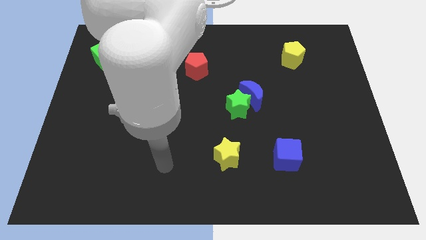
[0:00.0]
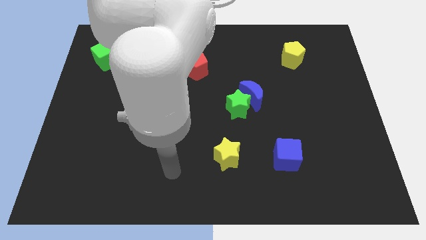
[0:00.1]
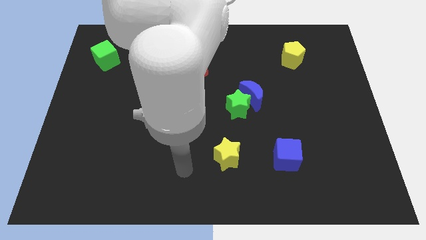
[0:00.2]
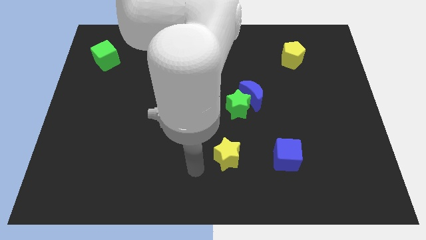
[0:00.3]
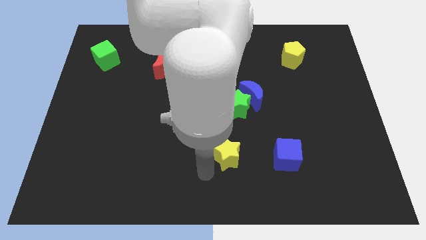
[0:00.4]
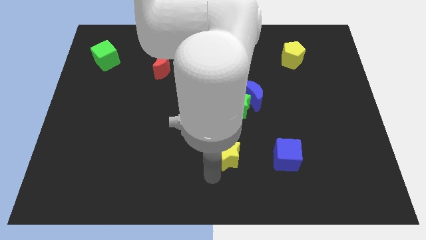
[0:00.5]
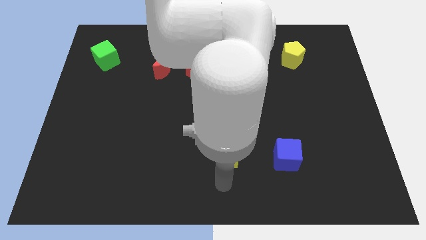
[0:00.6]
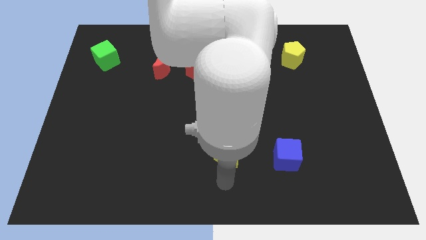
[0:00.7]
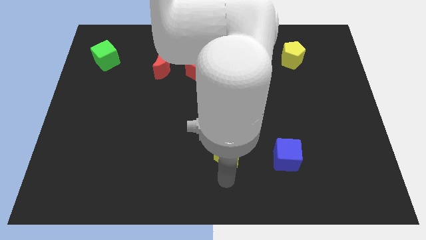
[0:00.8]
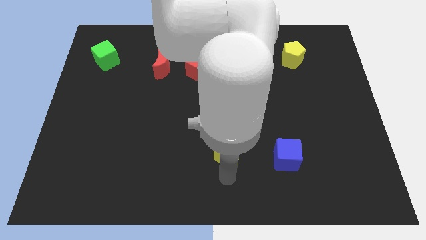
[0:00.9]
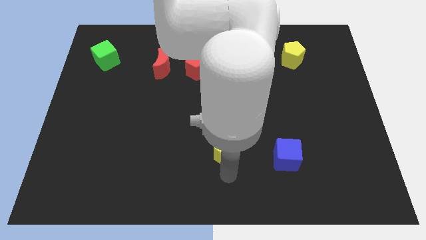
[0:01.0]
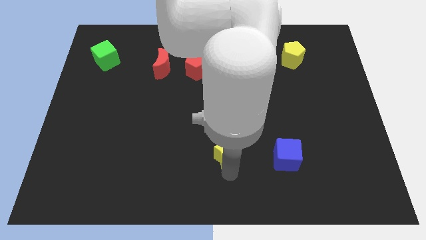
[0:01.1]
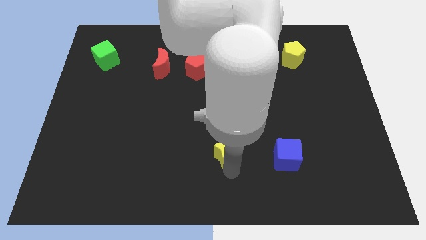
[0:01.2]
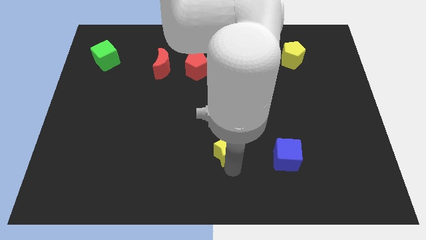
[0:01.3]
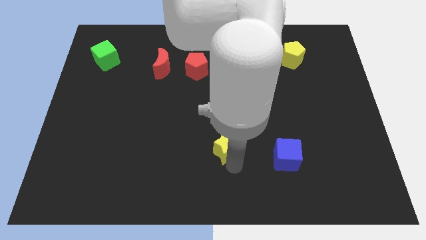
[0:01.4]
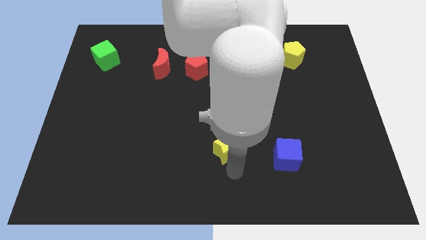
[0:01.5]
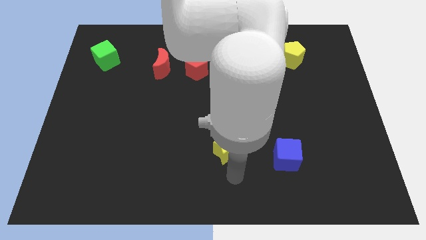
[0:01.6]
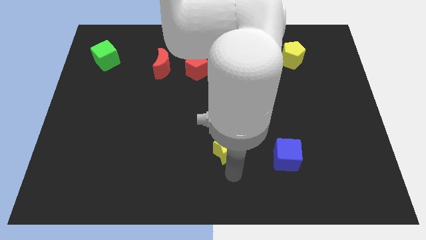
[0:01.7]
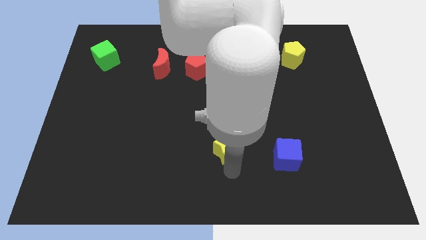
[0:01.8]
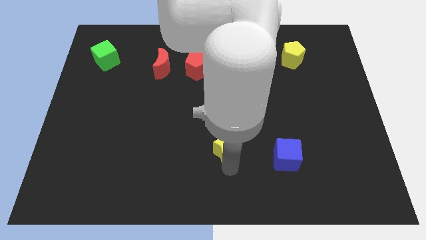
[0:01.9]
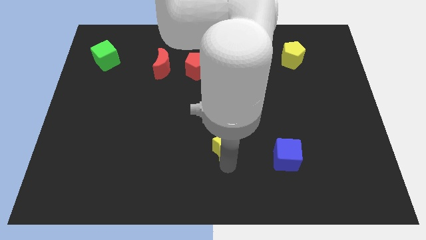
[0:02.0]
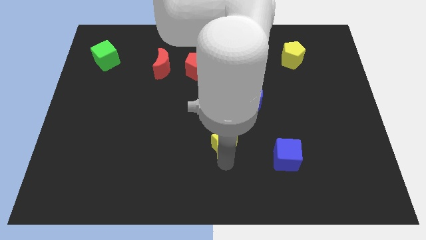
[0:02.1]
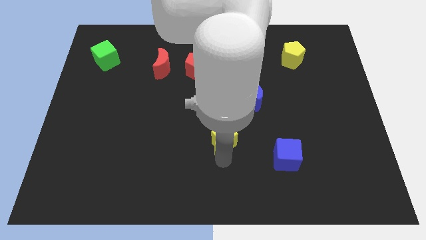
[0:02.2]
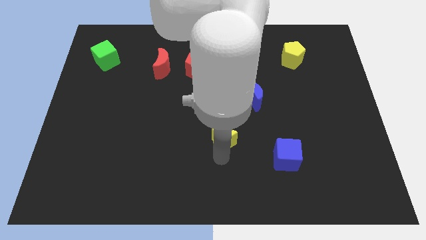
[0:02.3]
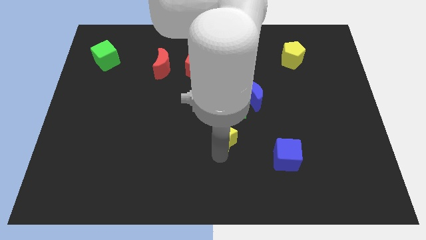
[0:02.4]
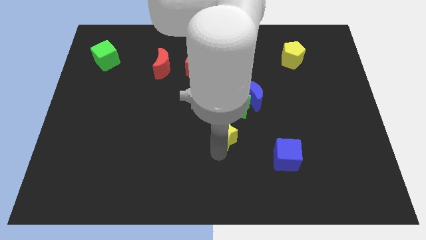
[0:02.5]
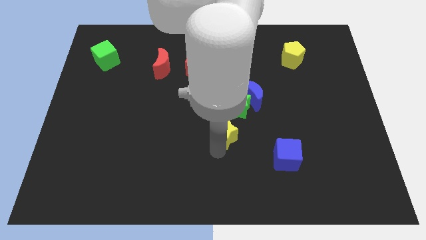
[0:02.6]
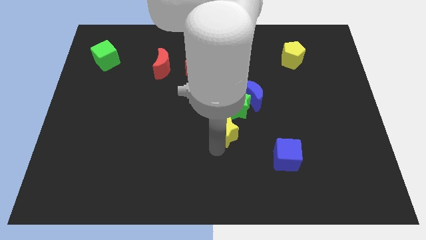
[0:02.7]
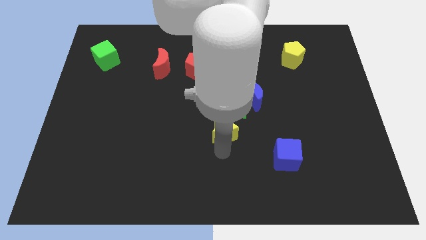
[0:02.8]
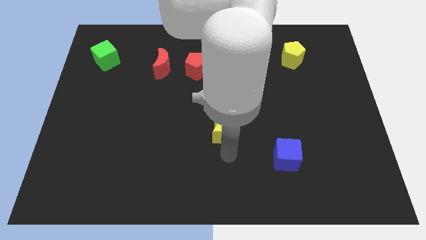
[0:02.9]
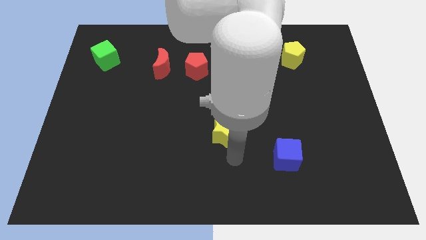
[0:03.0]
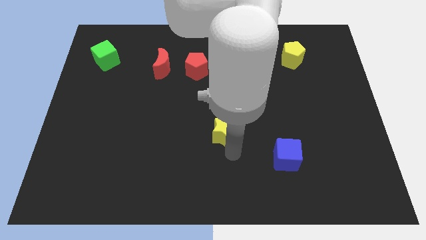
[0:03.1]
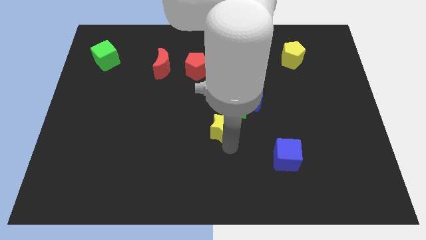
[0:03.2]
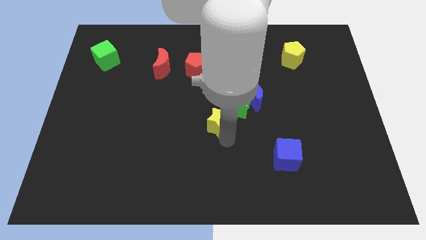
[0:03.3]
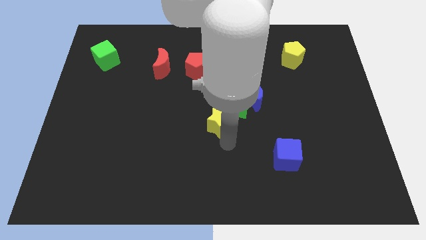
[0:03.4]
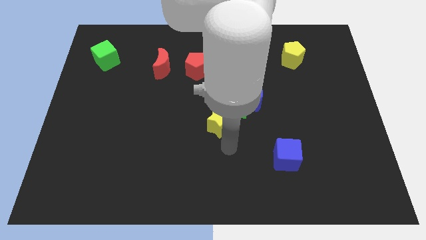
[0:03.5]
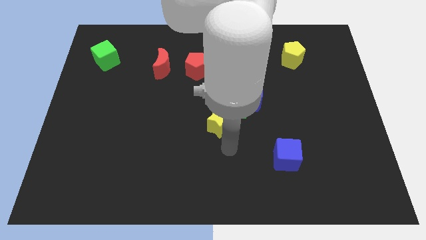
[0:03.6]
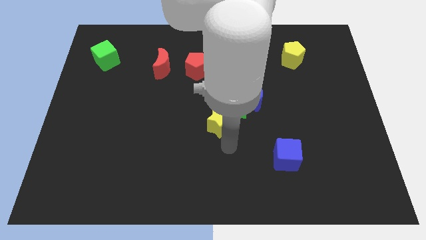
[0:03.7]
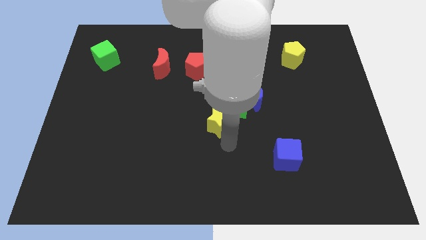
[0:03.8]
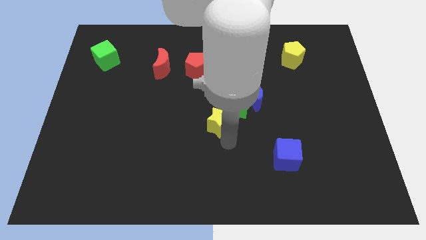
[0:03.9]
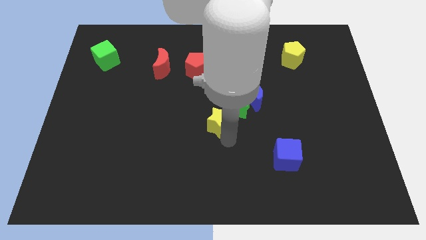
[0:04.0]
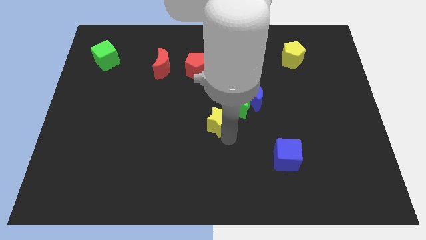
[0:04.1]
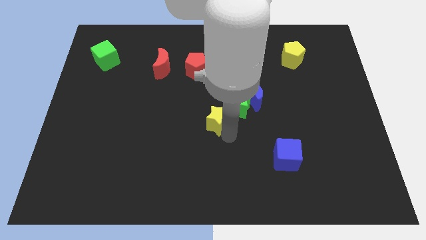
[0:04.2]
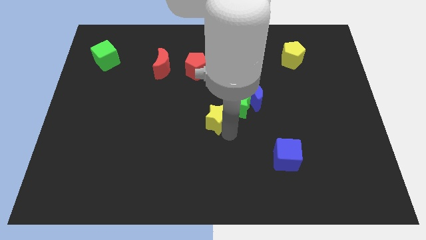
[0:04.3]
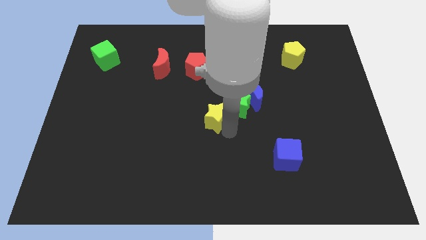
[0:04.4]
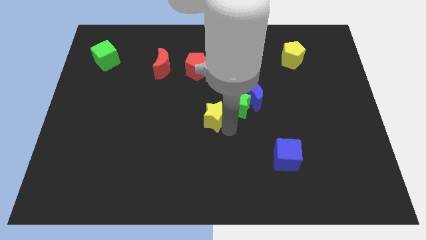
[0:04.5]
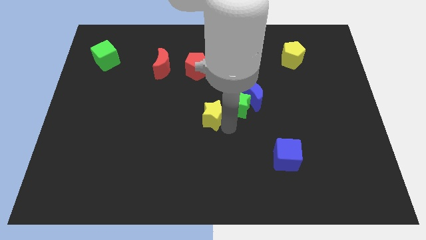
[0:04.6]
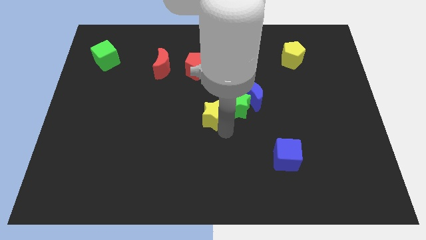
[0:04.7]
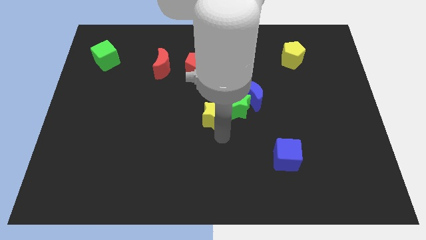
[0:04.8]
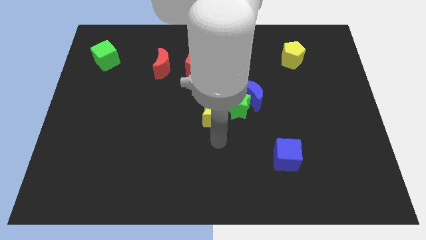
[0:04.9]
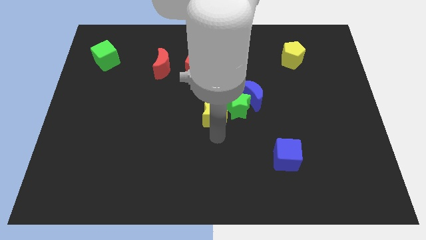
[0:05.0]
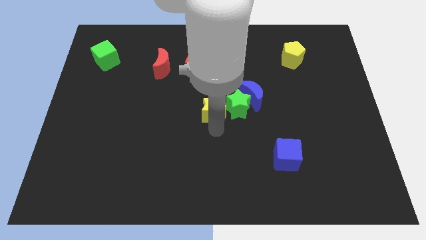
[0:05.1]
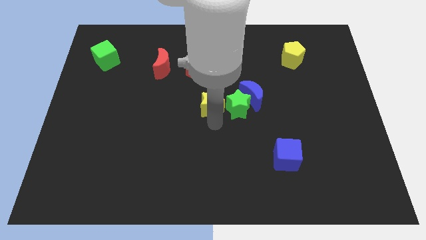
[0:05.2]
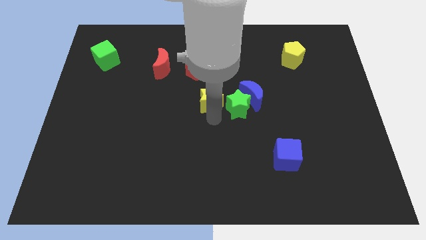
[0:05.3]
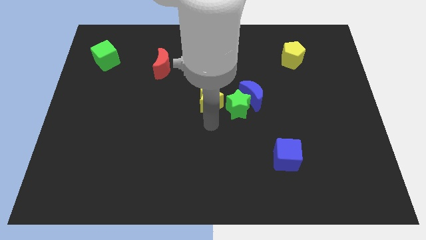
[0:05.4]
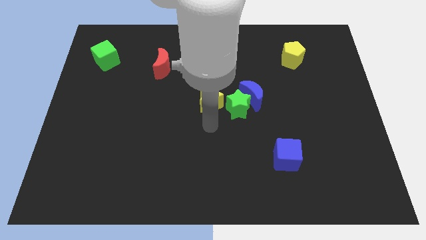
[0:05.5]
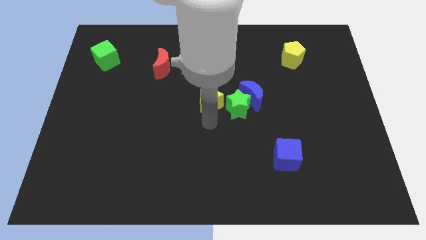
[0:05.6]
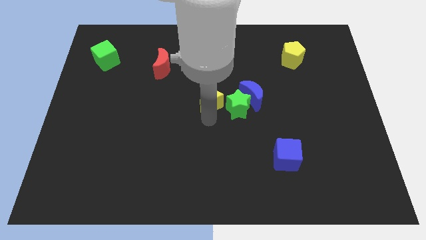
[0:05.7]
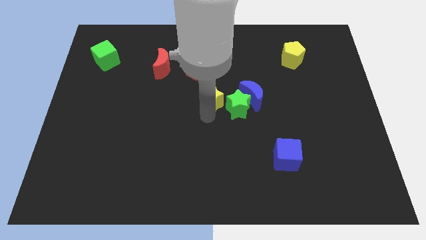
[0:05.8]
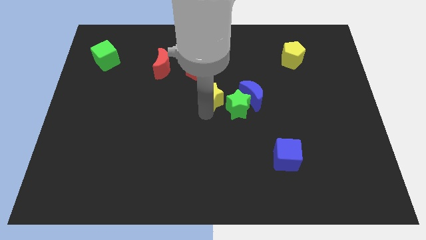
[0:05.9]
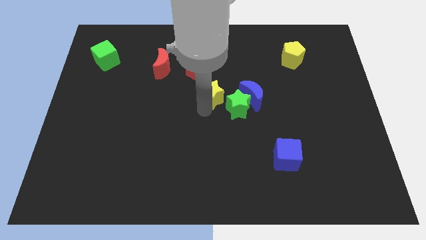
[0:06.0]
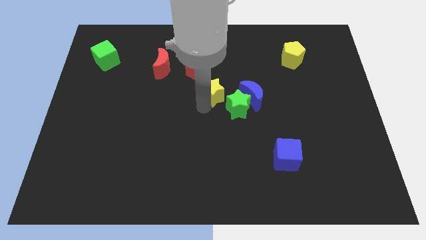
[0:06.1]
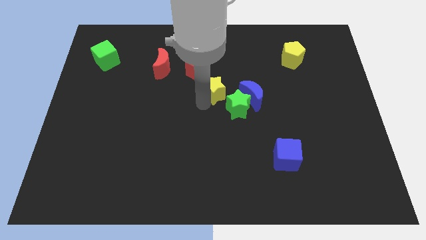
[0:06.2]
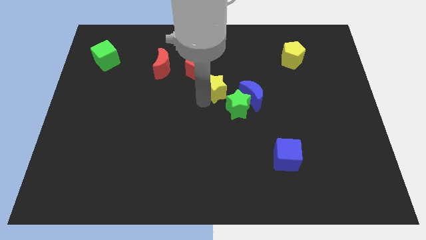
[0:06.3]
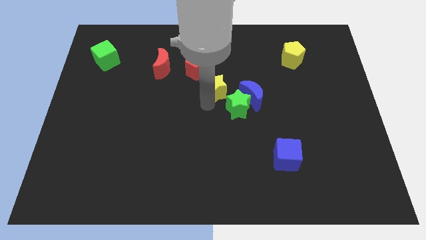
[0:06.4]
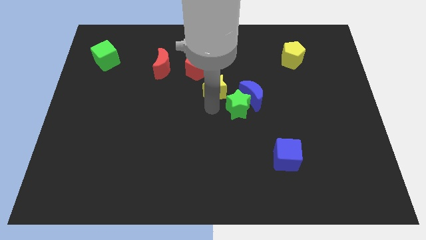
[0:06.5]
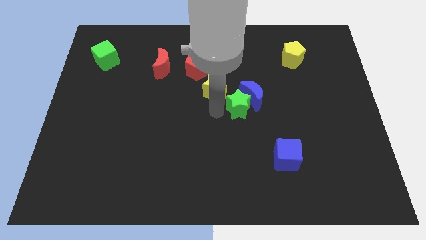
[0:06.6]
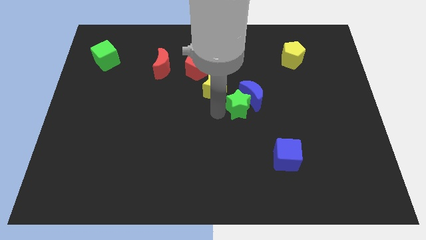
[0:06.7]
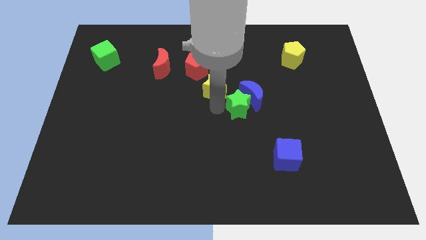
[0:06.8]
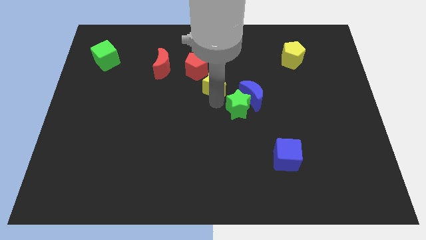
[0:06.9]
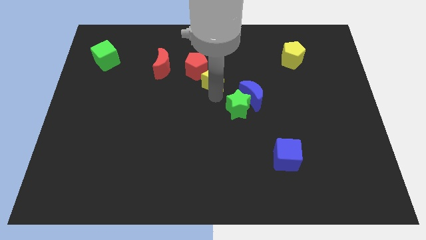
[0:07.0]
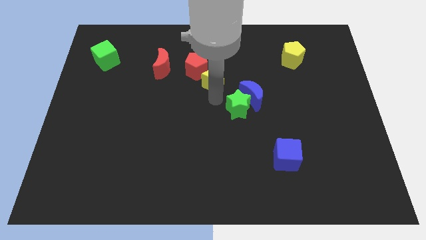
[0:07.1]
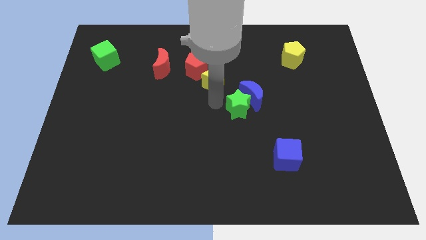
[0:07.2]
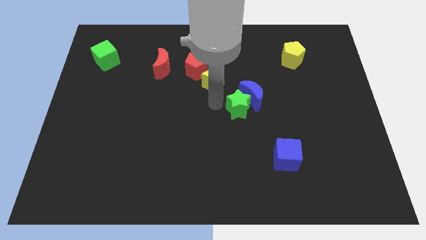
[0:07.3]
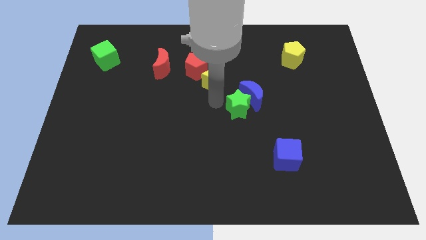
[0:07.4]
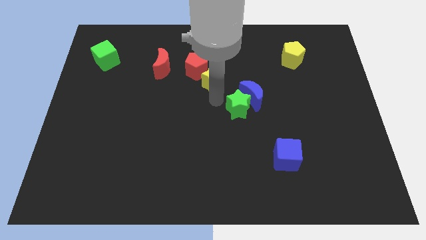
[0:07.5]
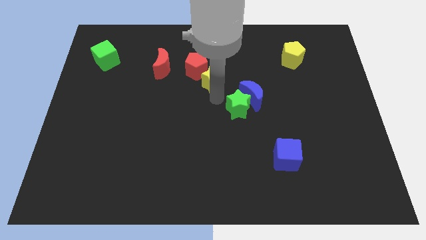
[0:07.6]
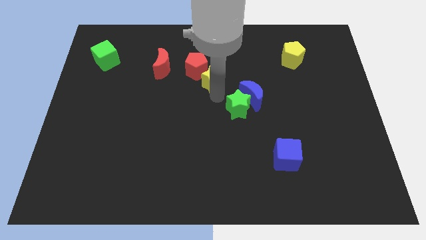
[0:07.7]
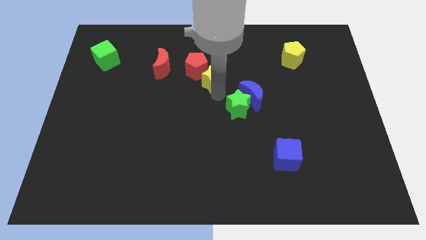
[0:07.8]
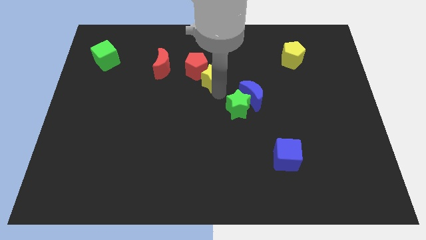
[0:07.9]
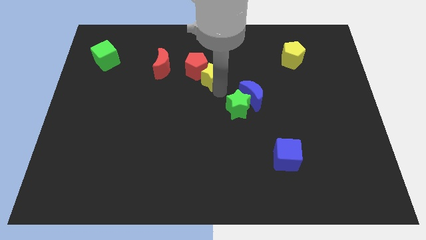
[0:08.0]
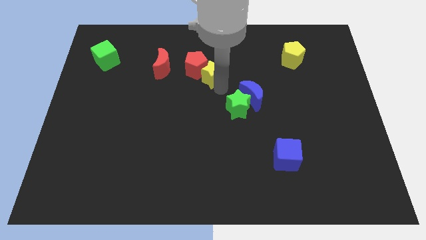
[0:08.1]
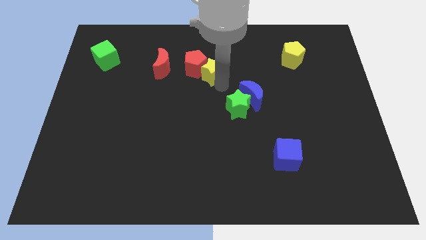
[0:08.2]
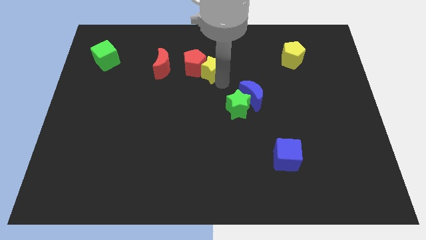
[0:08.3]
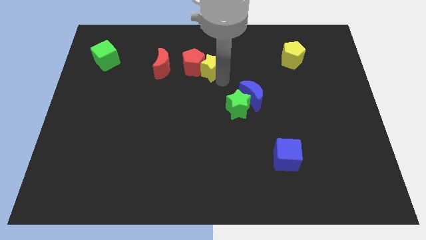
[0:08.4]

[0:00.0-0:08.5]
move the yellow star to the top right side of the red pentagon
